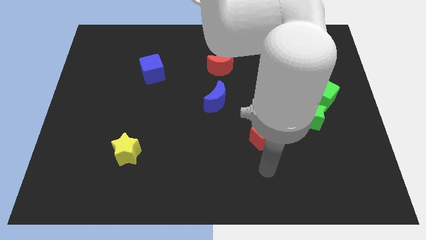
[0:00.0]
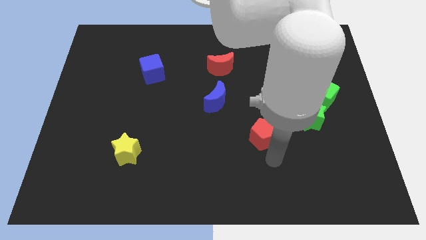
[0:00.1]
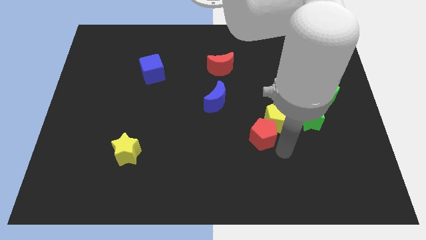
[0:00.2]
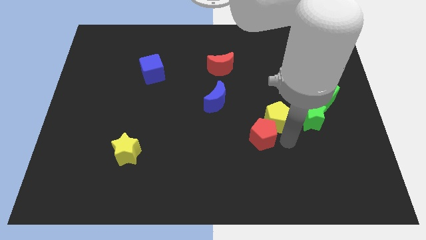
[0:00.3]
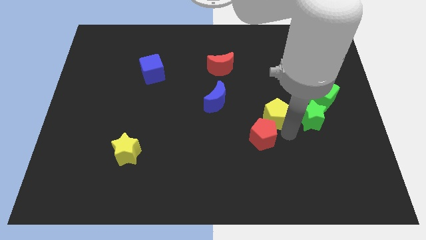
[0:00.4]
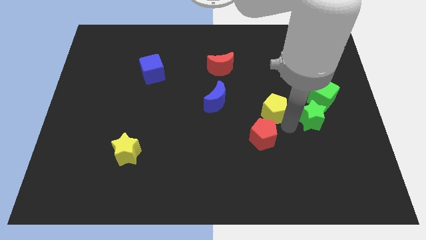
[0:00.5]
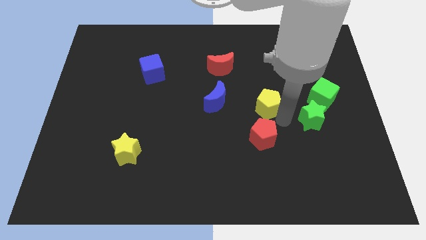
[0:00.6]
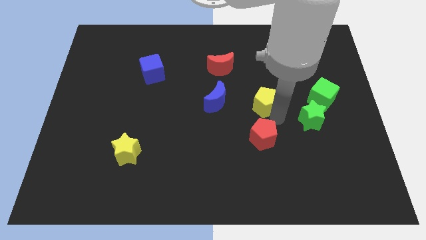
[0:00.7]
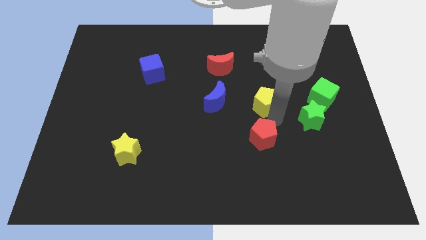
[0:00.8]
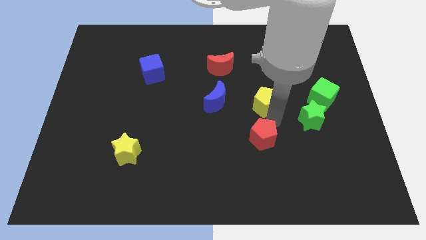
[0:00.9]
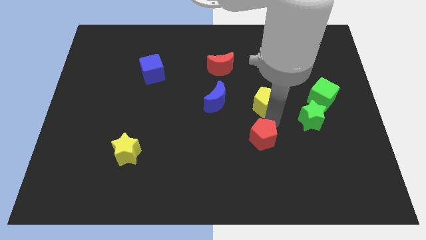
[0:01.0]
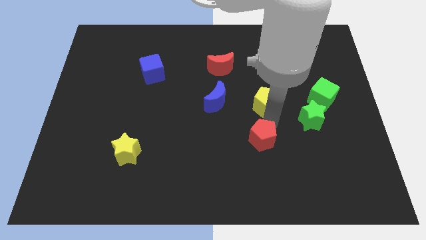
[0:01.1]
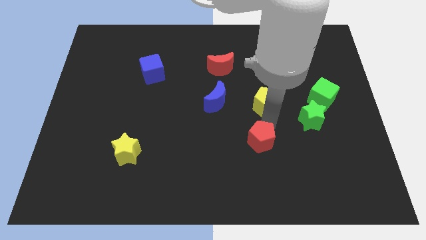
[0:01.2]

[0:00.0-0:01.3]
move the red pentagon away from the yellow pentagon

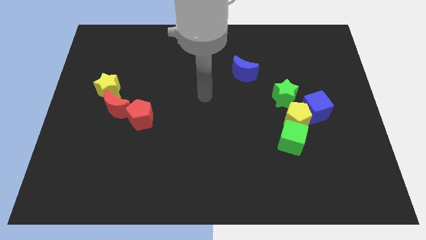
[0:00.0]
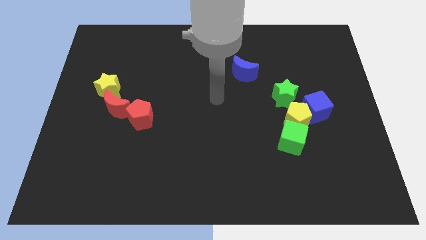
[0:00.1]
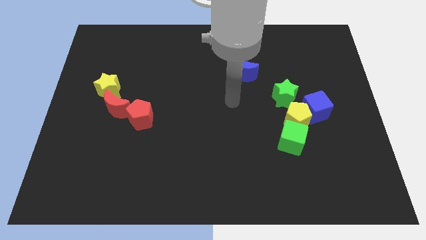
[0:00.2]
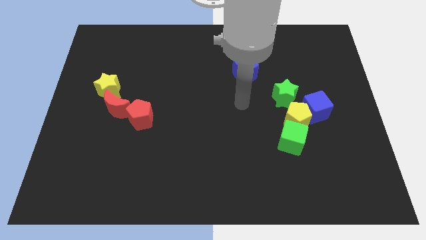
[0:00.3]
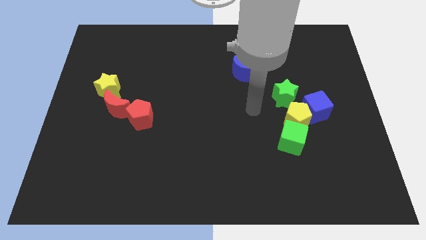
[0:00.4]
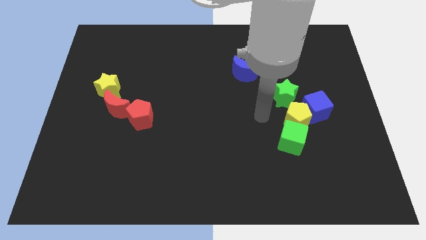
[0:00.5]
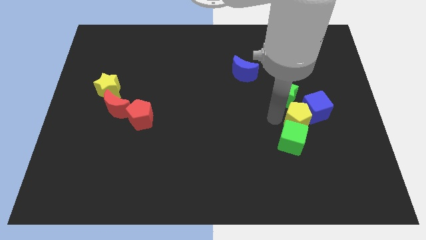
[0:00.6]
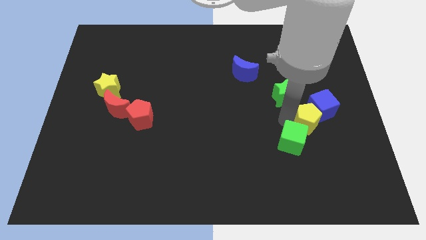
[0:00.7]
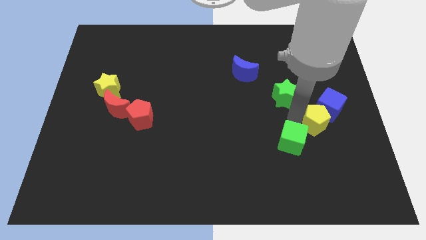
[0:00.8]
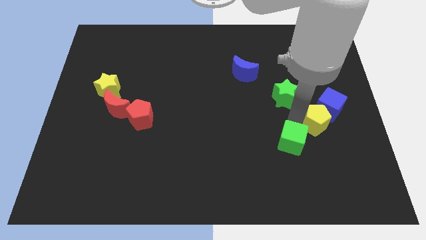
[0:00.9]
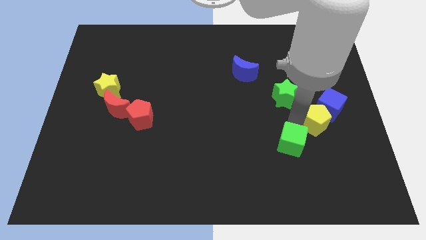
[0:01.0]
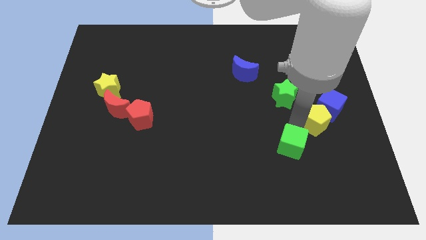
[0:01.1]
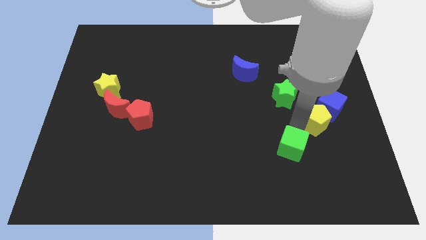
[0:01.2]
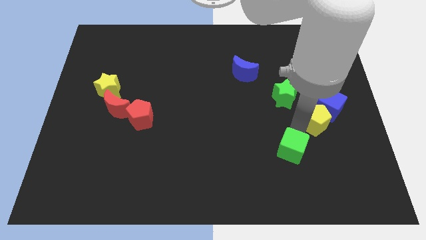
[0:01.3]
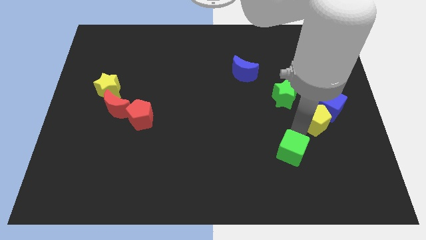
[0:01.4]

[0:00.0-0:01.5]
pull the green cube apart from the yellow pentagon

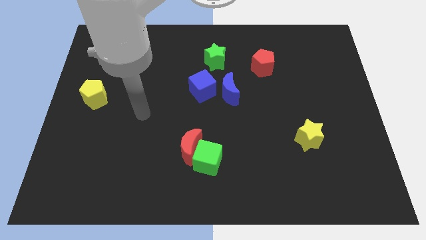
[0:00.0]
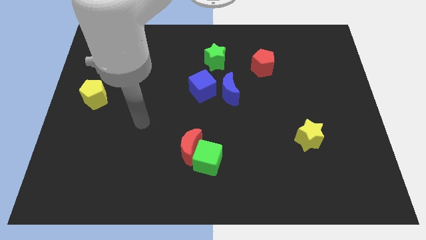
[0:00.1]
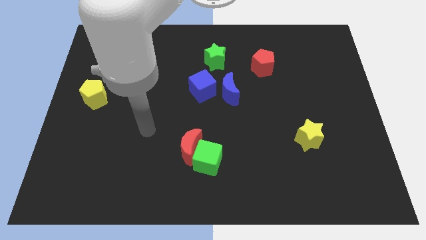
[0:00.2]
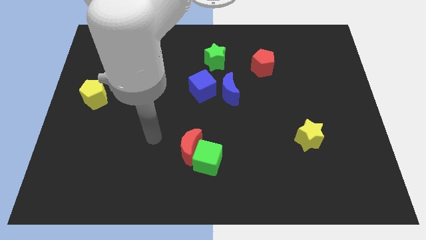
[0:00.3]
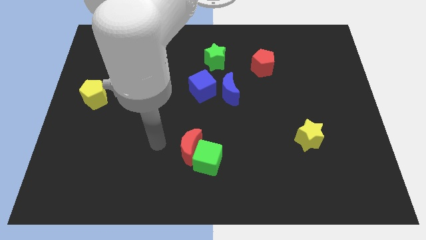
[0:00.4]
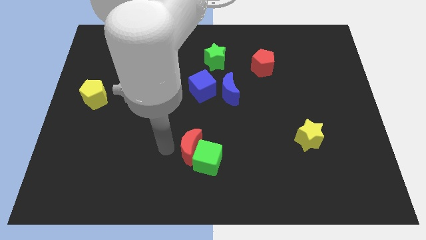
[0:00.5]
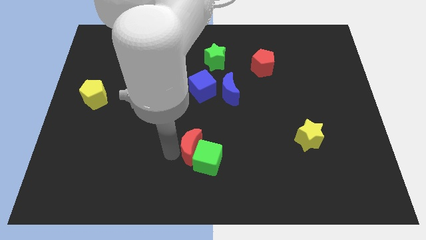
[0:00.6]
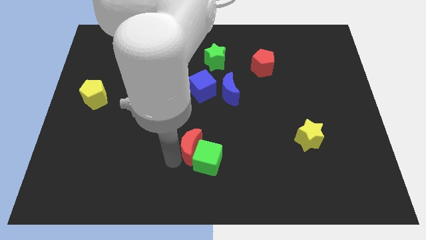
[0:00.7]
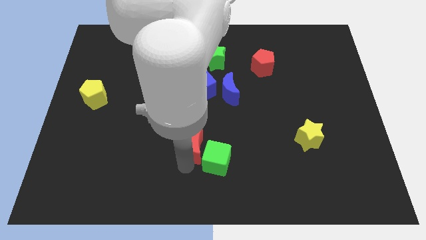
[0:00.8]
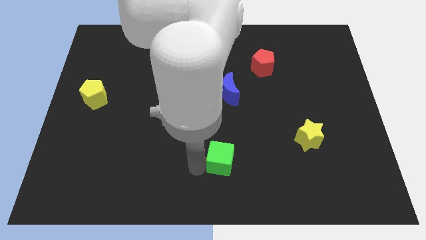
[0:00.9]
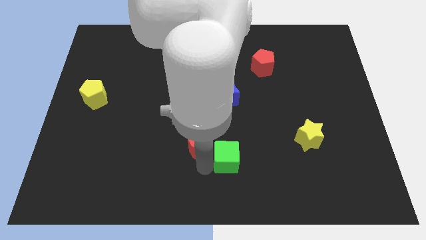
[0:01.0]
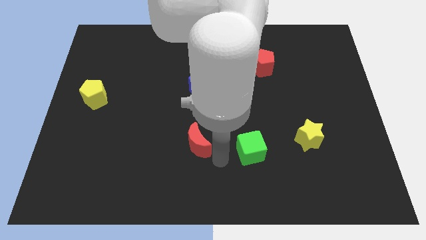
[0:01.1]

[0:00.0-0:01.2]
separate the red moon from the green cube

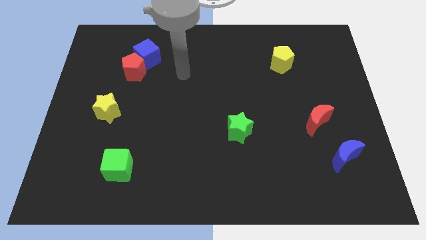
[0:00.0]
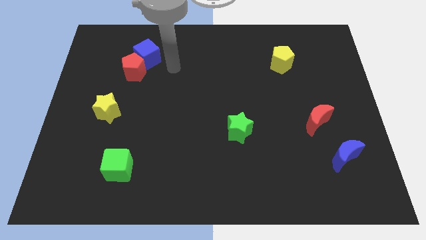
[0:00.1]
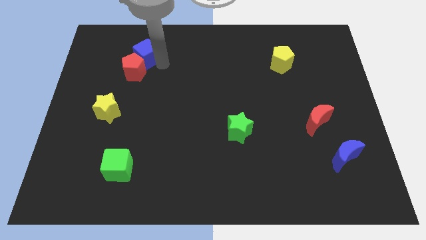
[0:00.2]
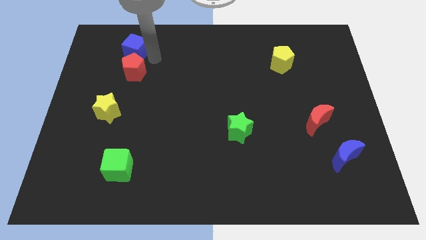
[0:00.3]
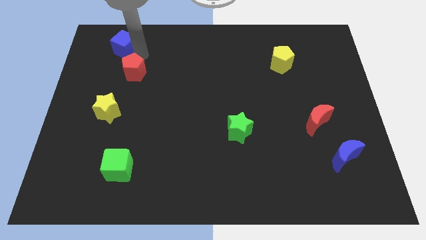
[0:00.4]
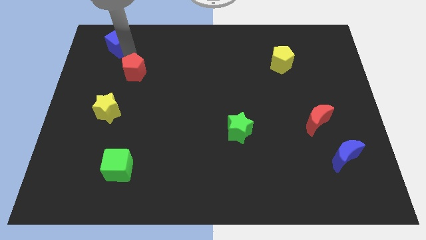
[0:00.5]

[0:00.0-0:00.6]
move the red pentagon away from the blue cube

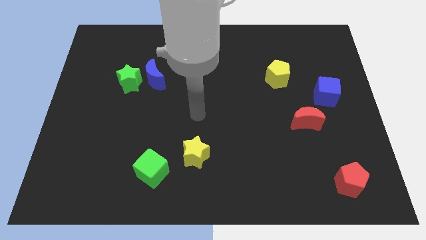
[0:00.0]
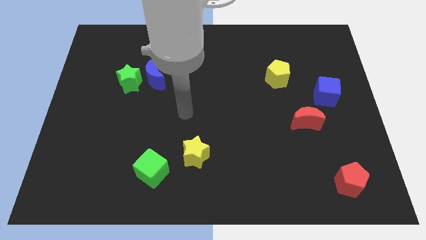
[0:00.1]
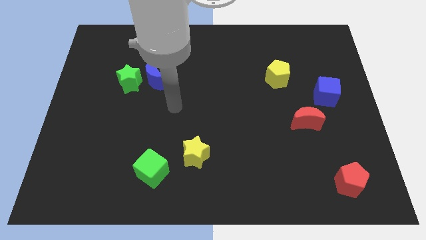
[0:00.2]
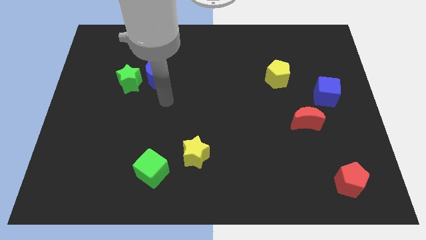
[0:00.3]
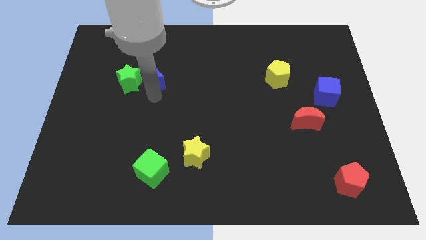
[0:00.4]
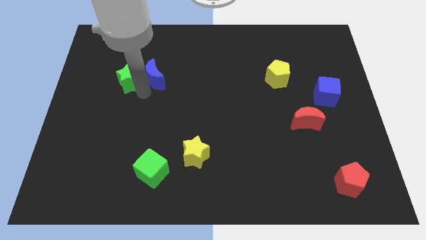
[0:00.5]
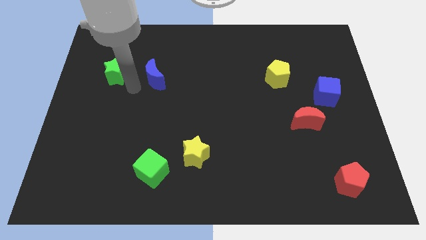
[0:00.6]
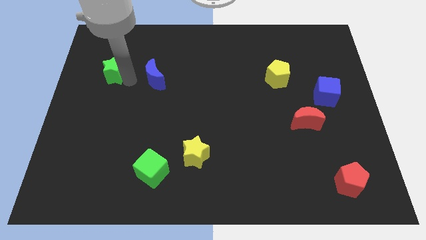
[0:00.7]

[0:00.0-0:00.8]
pull the blue moon apart from the green star

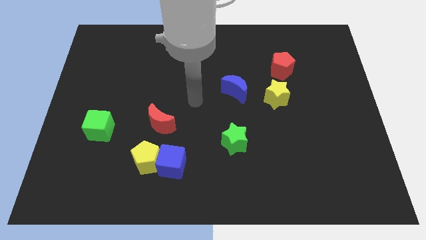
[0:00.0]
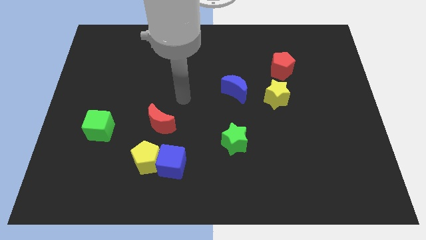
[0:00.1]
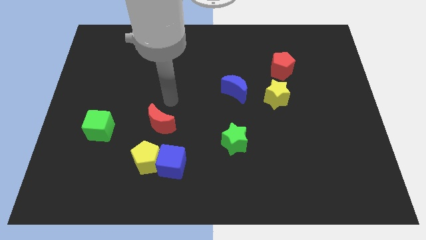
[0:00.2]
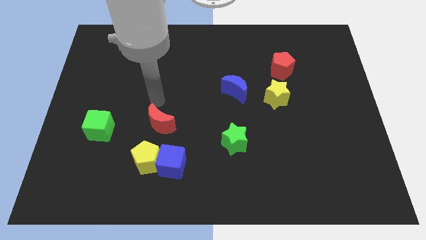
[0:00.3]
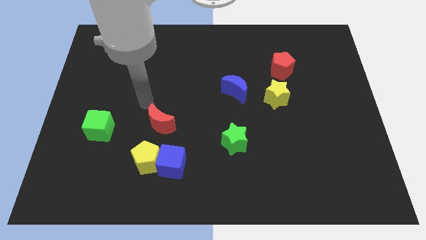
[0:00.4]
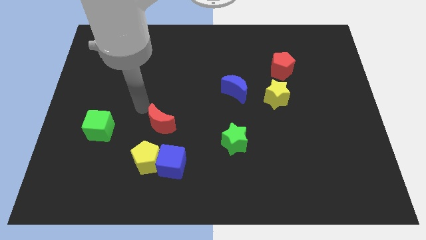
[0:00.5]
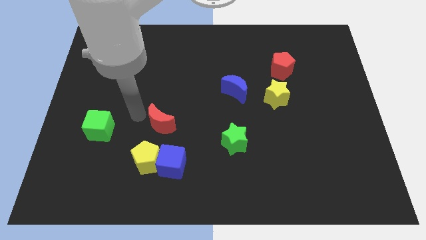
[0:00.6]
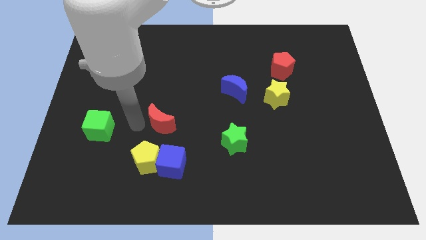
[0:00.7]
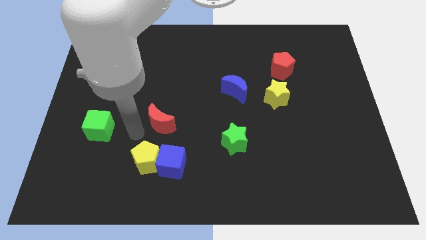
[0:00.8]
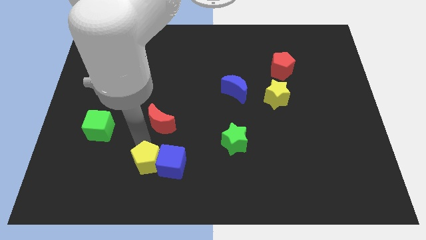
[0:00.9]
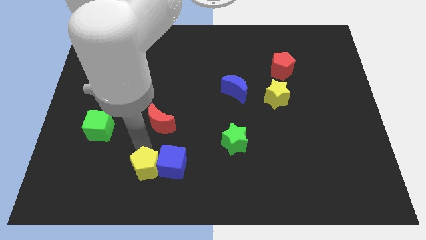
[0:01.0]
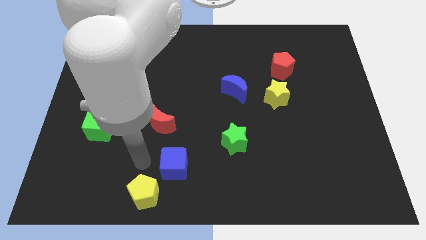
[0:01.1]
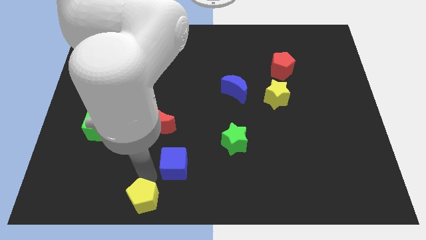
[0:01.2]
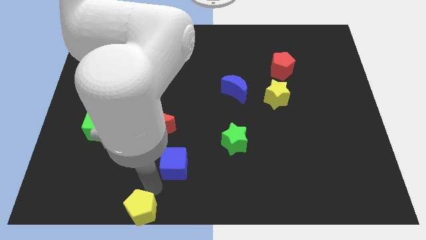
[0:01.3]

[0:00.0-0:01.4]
pull the blue cube apart from the yellow pentagon

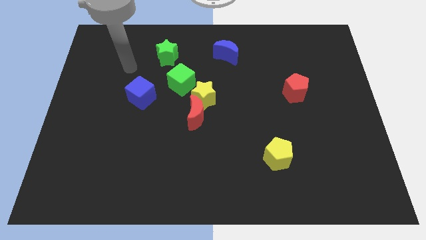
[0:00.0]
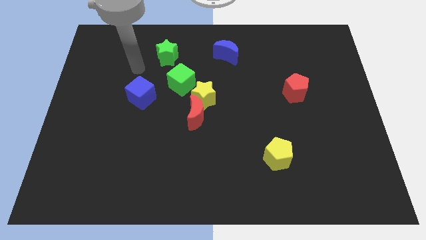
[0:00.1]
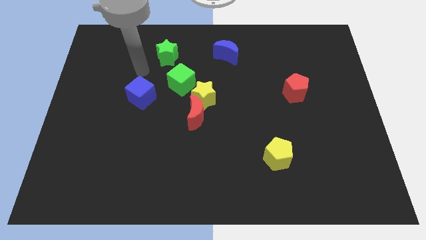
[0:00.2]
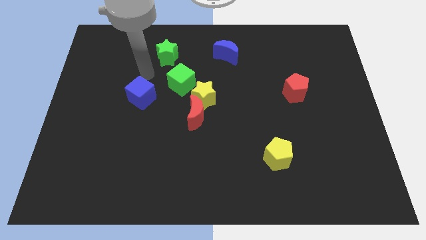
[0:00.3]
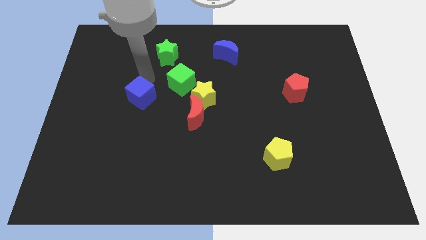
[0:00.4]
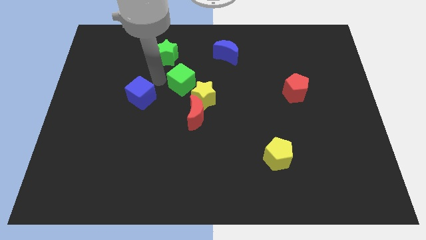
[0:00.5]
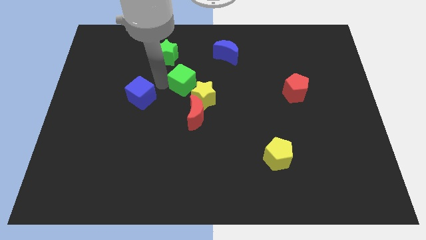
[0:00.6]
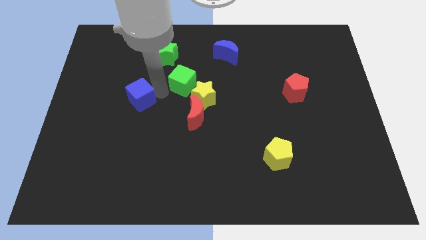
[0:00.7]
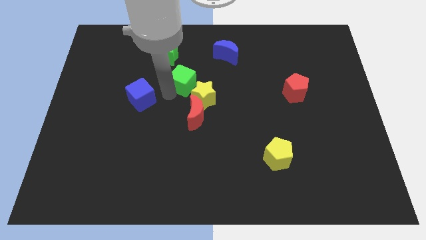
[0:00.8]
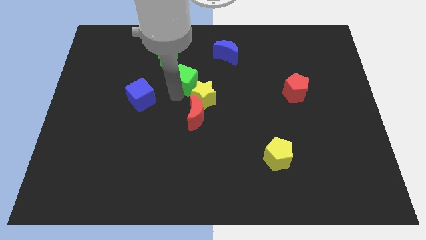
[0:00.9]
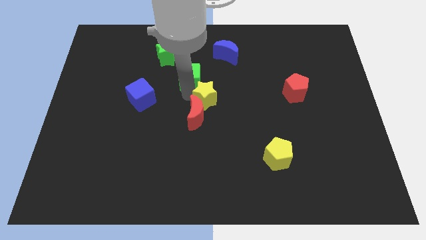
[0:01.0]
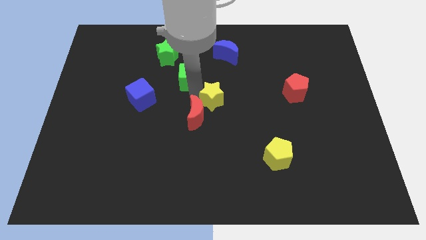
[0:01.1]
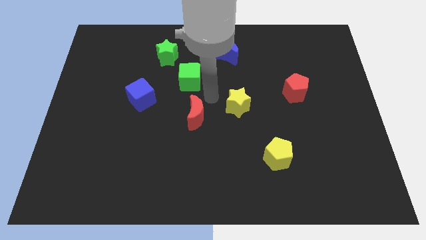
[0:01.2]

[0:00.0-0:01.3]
separate the red moon from the yellow star

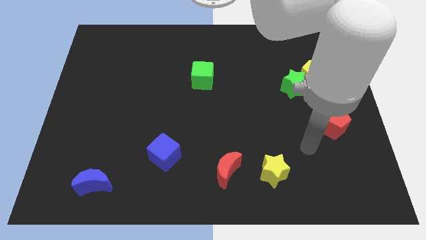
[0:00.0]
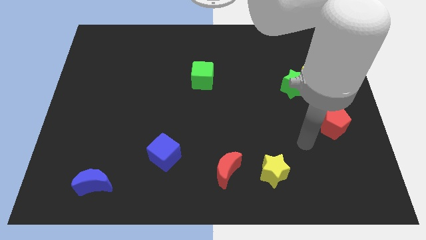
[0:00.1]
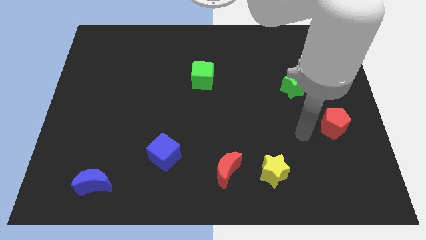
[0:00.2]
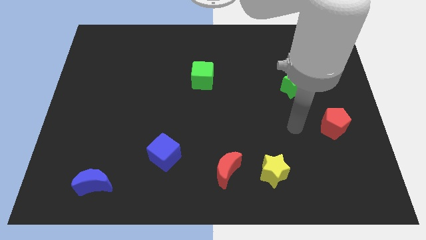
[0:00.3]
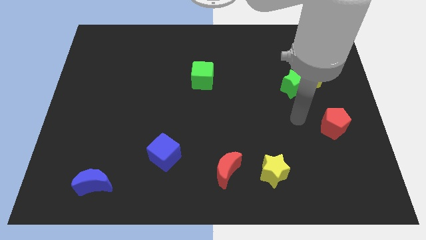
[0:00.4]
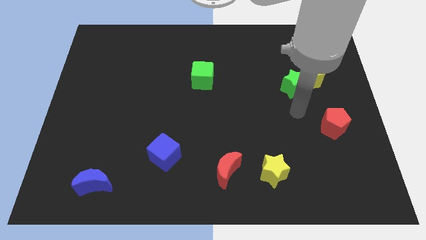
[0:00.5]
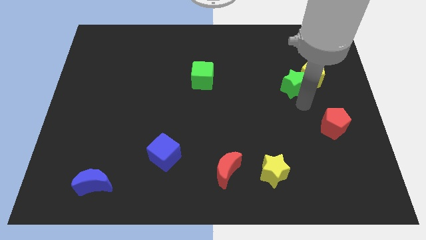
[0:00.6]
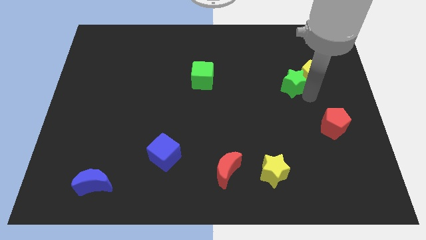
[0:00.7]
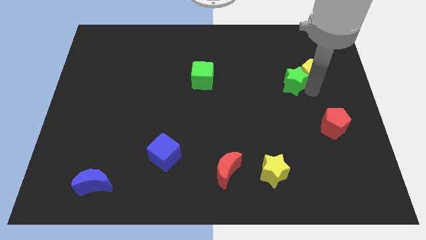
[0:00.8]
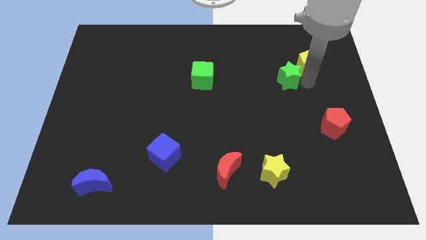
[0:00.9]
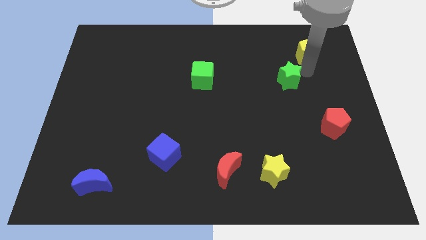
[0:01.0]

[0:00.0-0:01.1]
separate the green star from the yellow pentagon

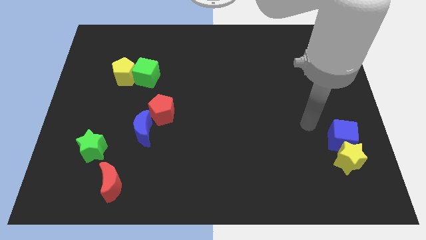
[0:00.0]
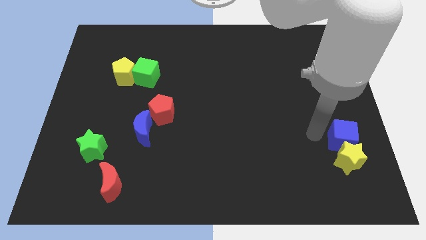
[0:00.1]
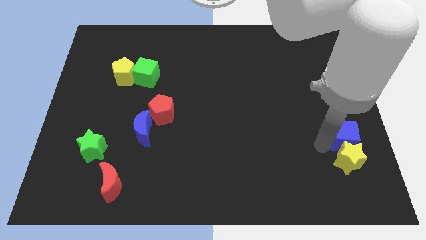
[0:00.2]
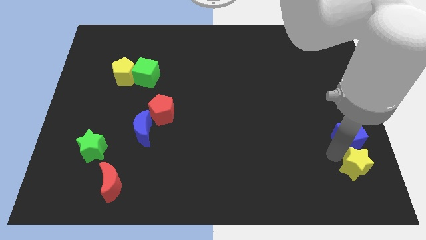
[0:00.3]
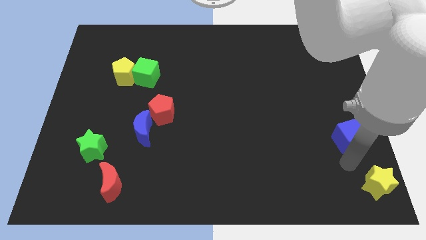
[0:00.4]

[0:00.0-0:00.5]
move the blue cube away from the yellow star
